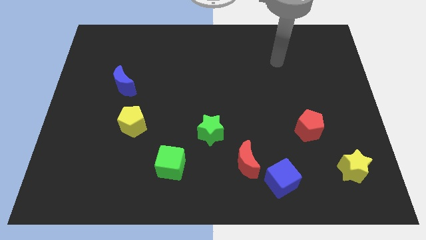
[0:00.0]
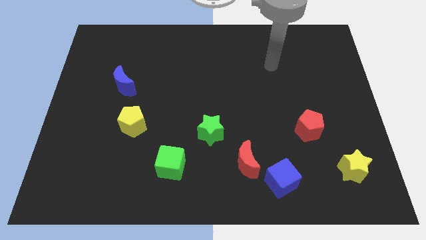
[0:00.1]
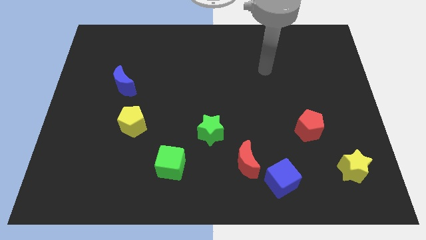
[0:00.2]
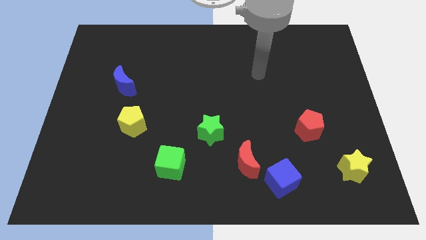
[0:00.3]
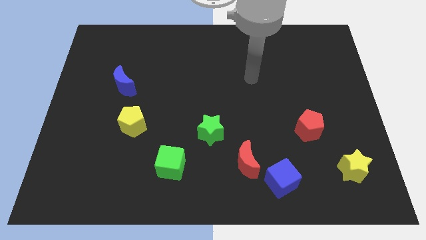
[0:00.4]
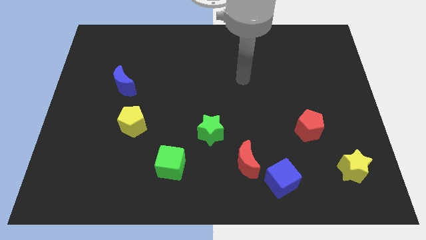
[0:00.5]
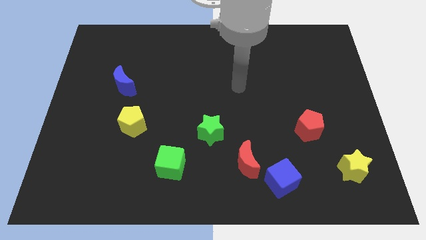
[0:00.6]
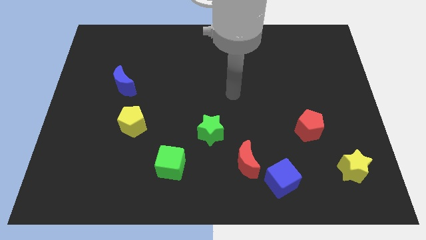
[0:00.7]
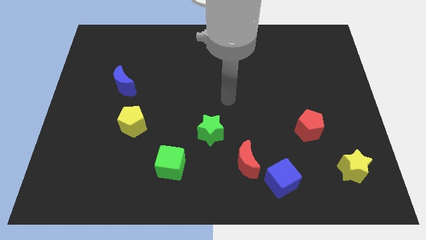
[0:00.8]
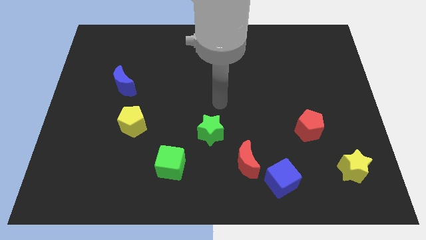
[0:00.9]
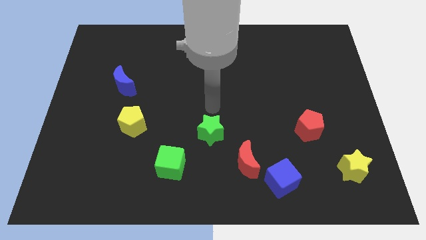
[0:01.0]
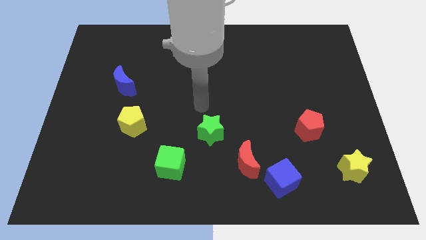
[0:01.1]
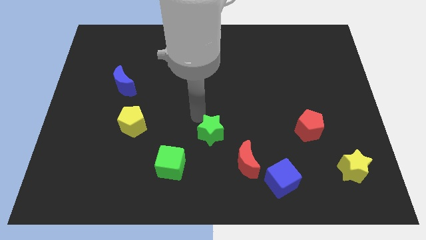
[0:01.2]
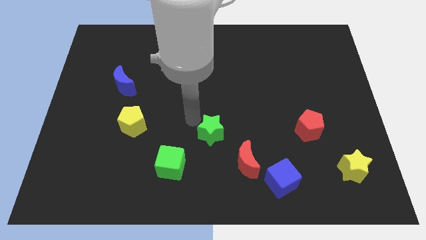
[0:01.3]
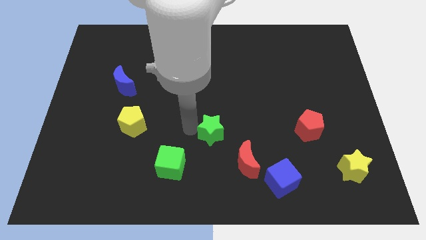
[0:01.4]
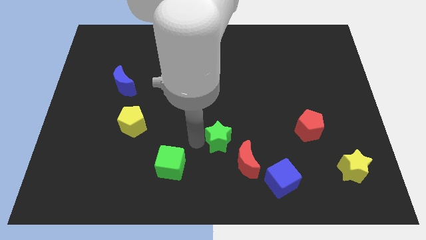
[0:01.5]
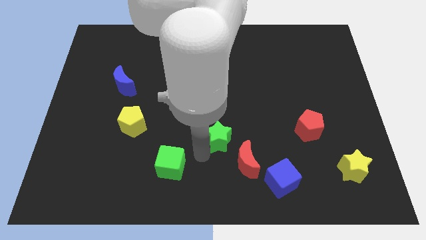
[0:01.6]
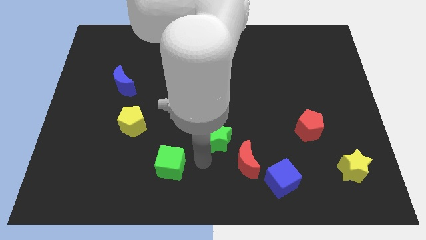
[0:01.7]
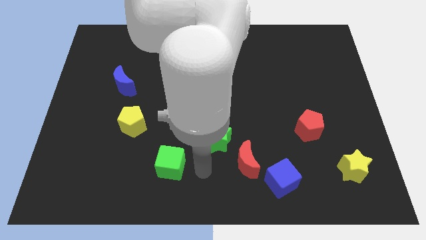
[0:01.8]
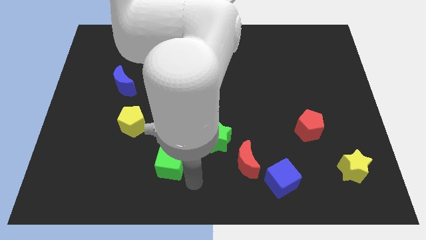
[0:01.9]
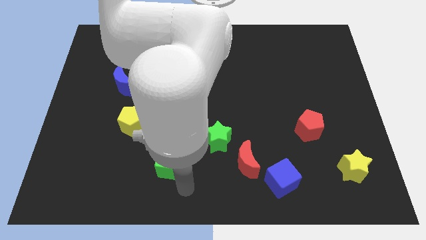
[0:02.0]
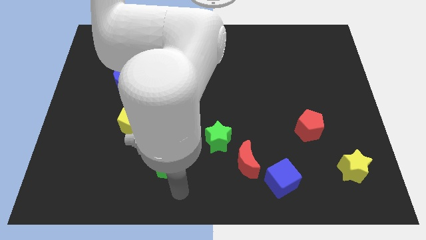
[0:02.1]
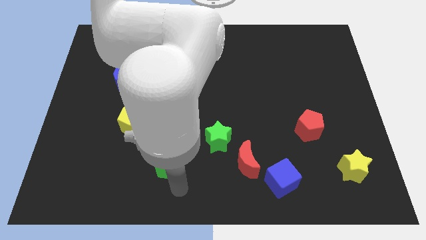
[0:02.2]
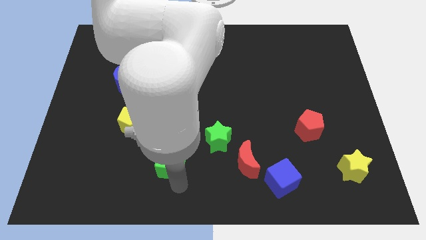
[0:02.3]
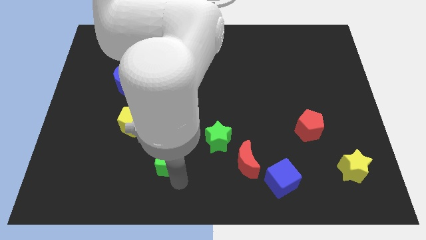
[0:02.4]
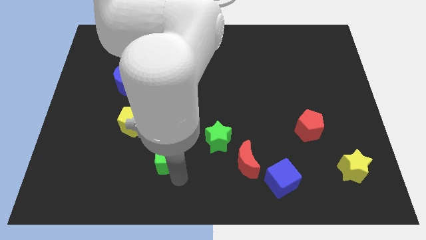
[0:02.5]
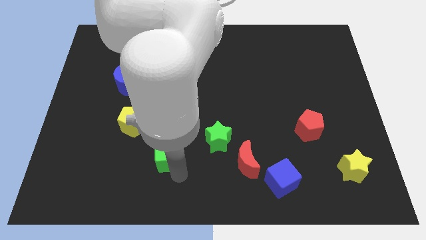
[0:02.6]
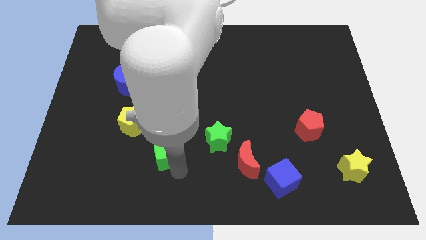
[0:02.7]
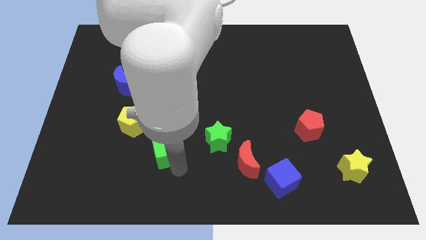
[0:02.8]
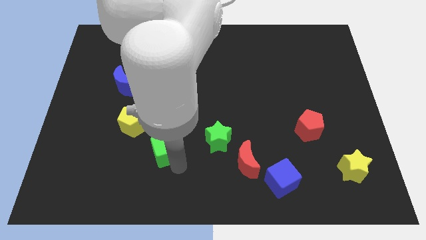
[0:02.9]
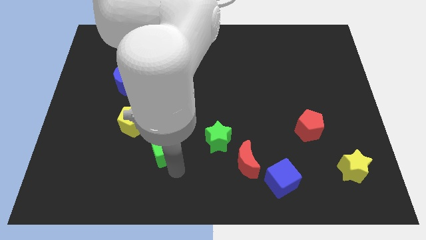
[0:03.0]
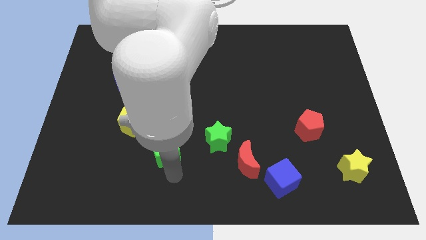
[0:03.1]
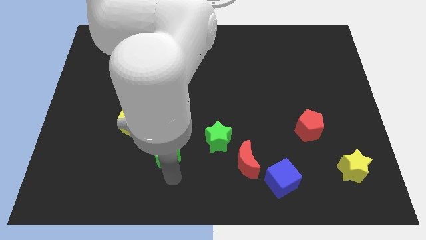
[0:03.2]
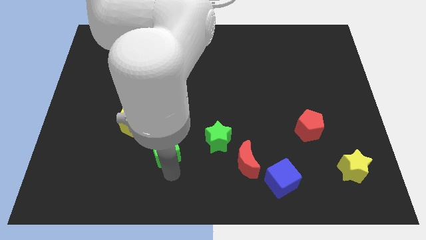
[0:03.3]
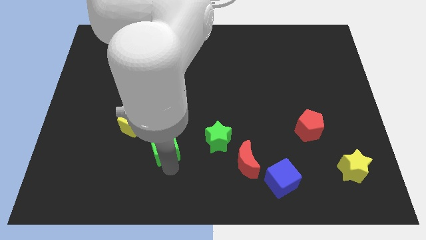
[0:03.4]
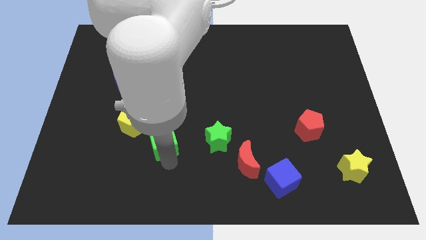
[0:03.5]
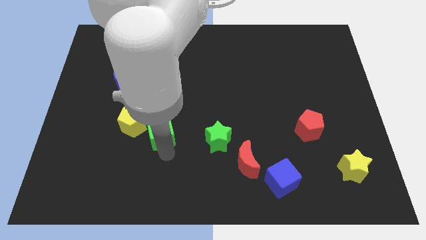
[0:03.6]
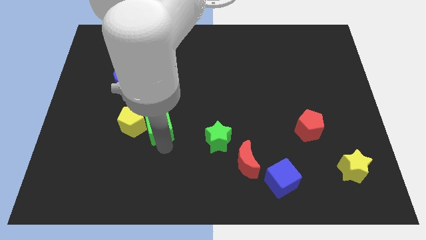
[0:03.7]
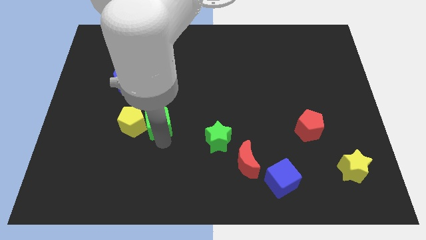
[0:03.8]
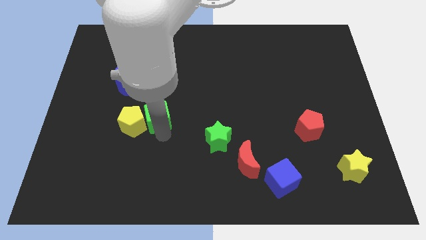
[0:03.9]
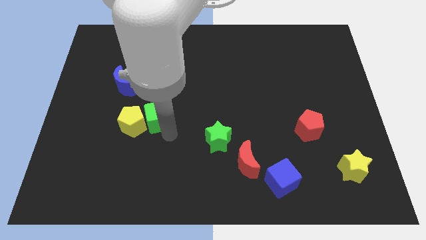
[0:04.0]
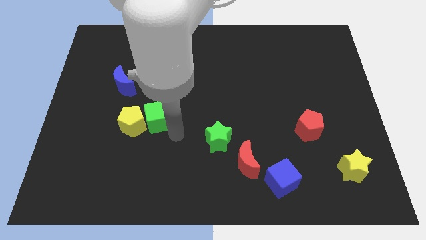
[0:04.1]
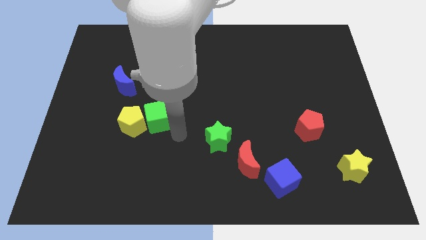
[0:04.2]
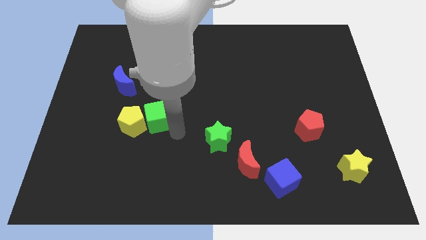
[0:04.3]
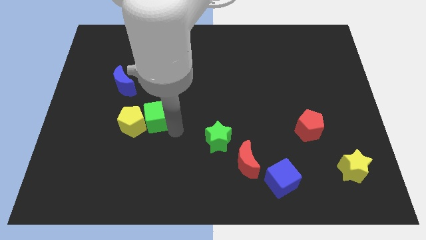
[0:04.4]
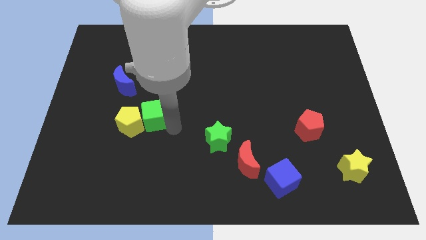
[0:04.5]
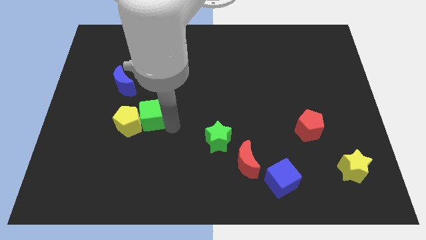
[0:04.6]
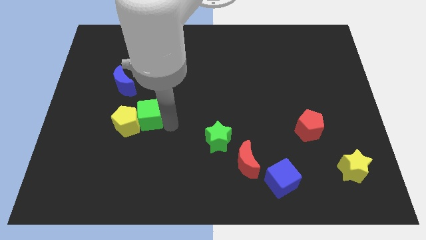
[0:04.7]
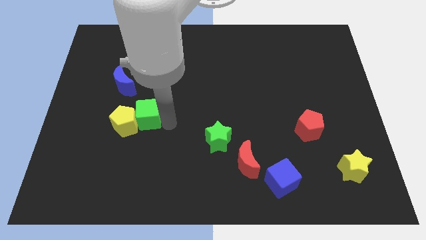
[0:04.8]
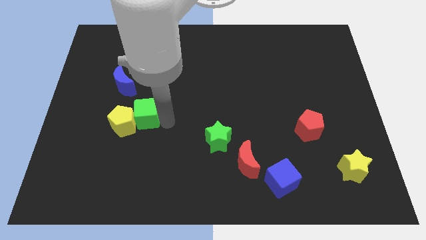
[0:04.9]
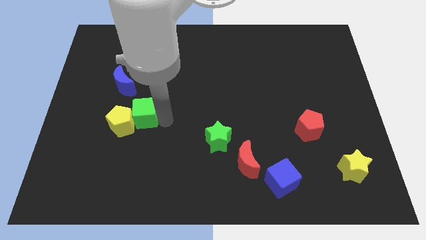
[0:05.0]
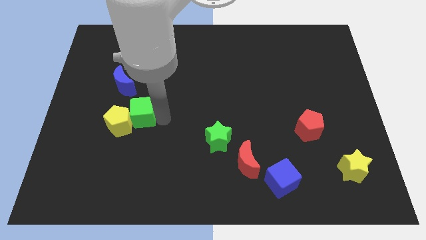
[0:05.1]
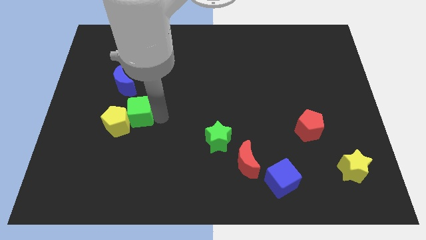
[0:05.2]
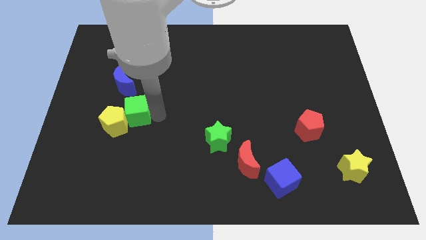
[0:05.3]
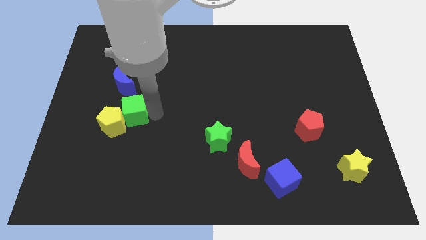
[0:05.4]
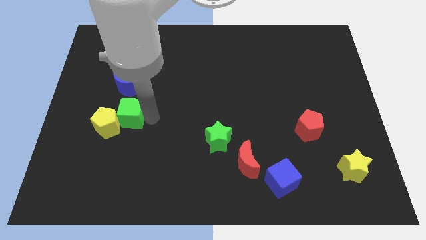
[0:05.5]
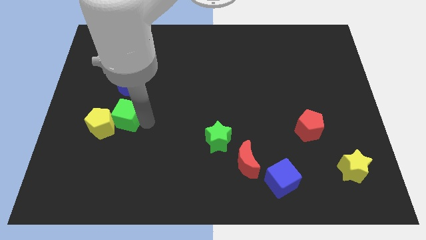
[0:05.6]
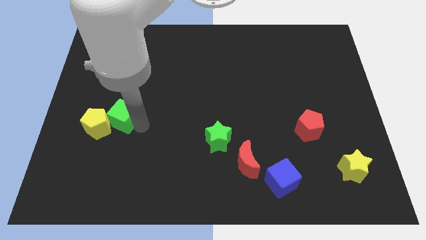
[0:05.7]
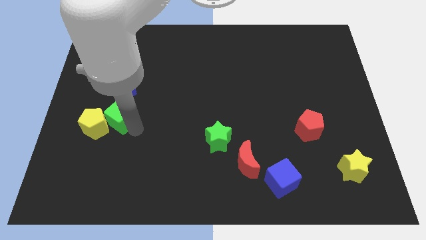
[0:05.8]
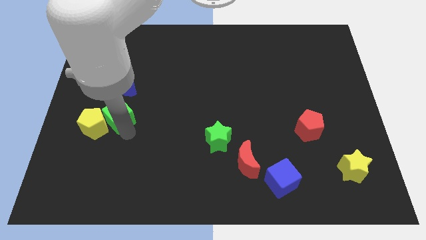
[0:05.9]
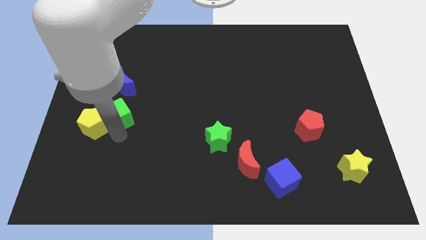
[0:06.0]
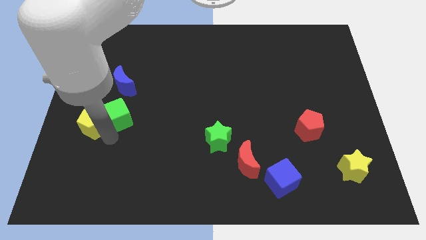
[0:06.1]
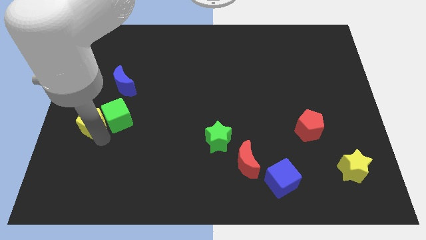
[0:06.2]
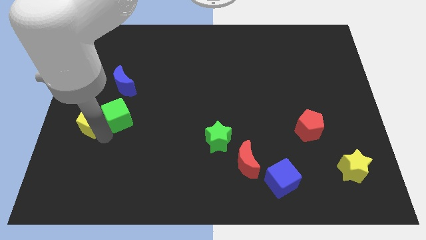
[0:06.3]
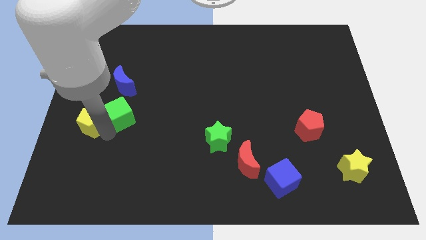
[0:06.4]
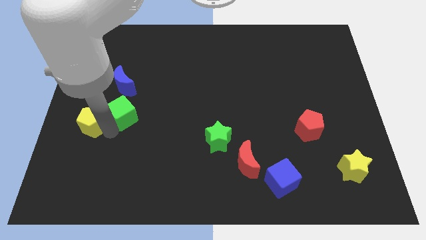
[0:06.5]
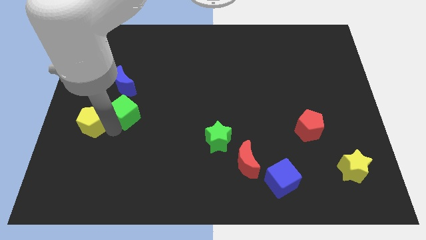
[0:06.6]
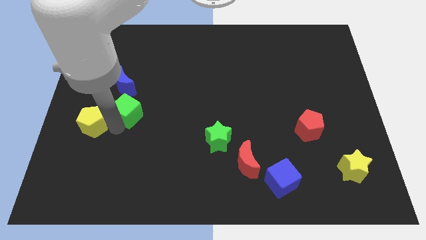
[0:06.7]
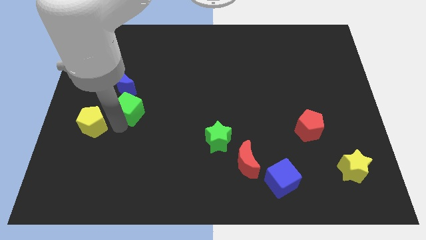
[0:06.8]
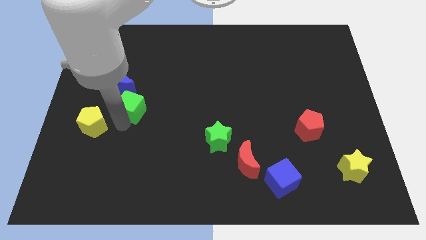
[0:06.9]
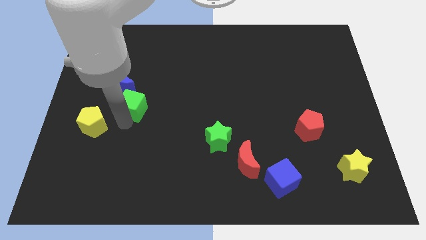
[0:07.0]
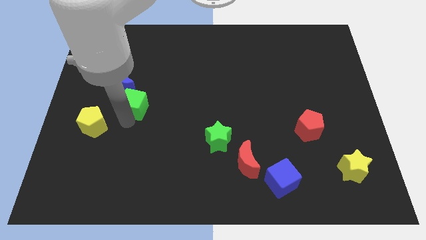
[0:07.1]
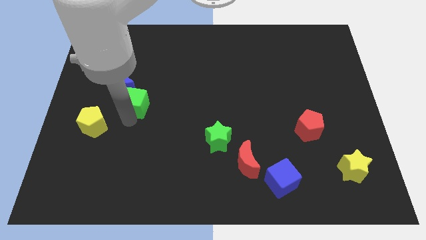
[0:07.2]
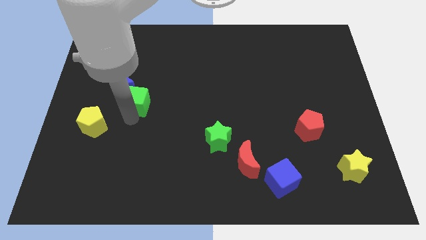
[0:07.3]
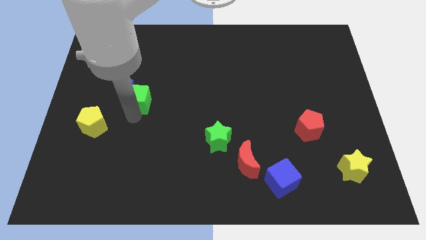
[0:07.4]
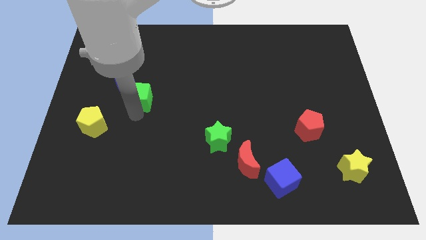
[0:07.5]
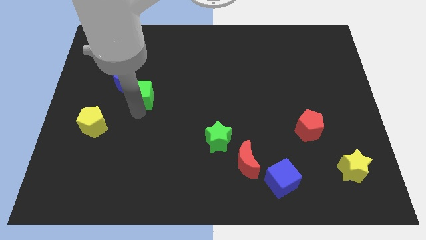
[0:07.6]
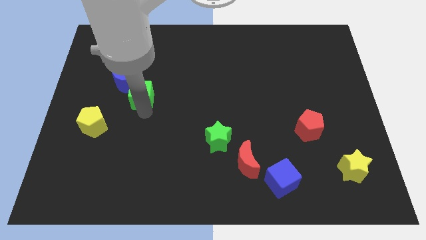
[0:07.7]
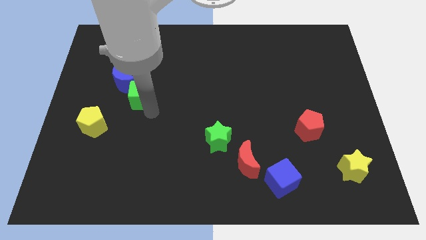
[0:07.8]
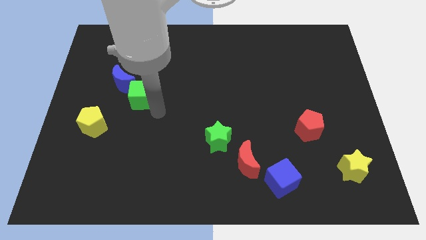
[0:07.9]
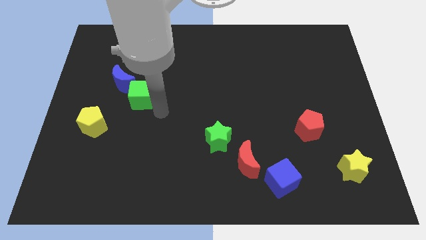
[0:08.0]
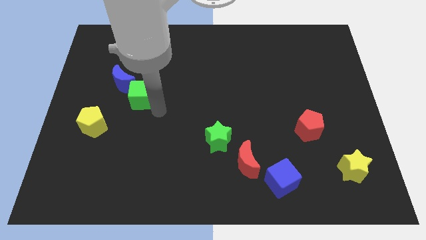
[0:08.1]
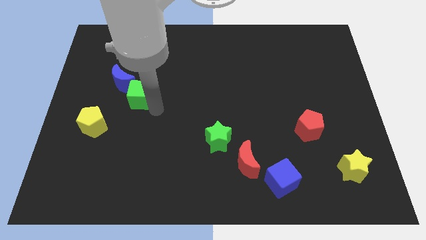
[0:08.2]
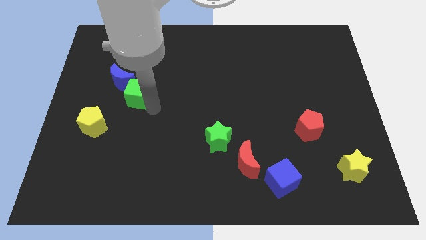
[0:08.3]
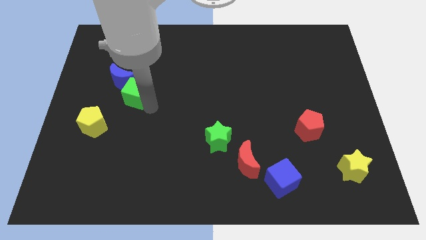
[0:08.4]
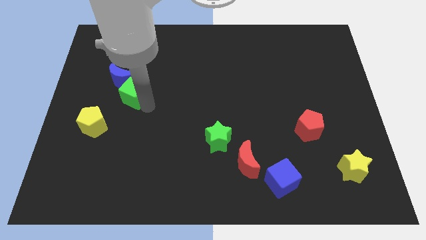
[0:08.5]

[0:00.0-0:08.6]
slide the green cube next to the blue moon
